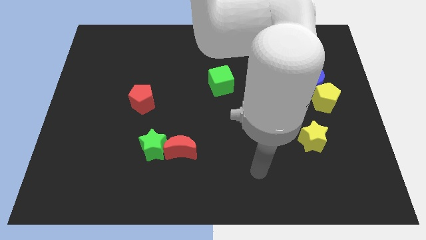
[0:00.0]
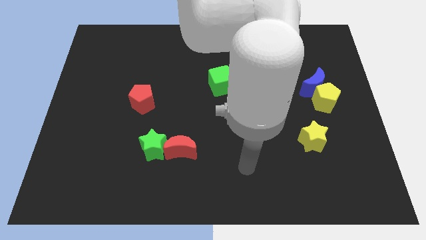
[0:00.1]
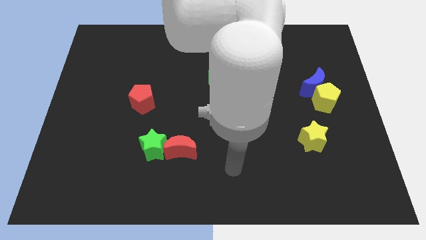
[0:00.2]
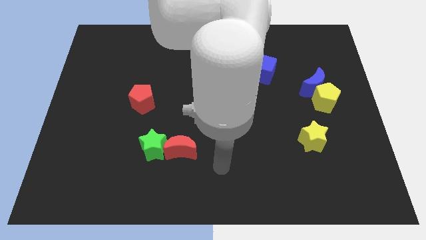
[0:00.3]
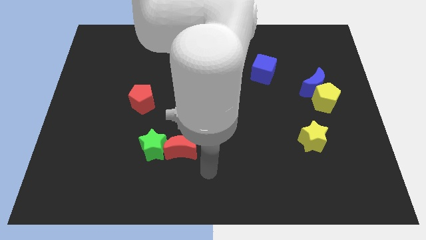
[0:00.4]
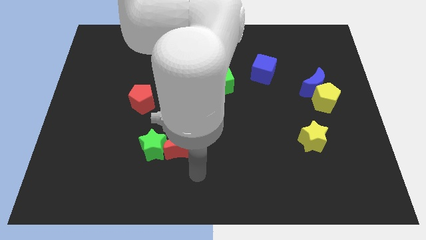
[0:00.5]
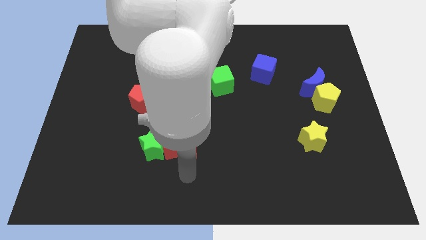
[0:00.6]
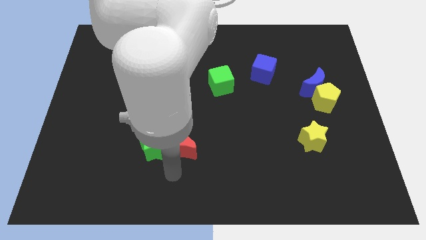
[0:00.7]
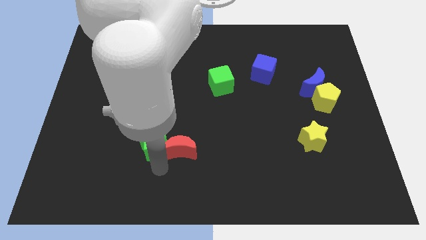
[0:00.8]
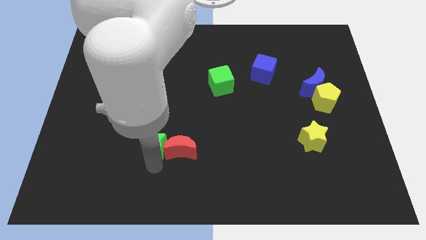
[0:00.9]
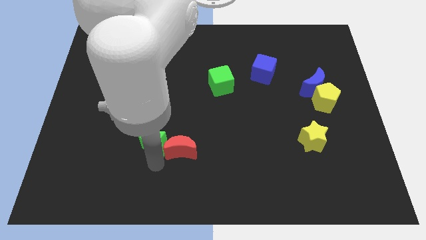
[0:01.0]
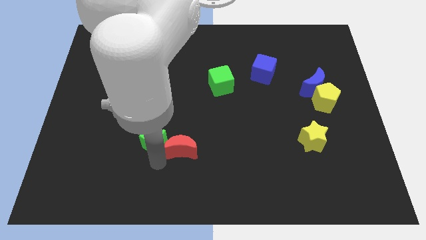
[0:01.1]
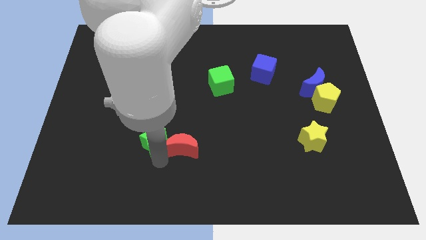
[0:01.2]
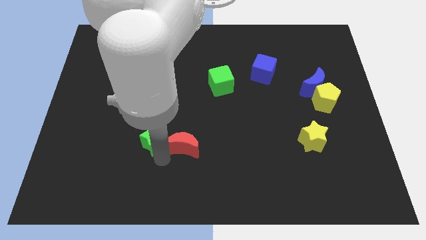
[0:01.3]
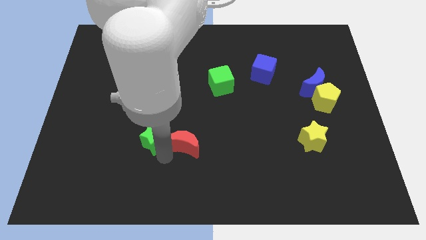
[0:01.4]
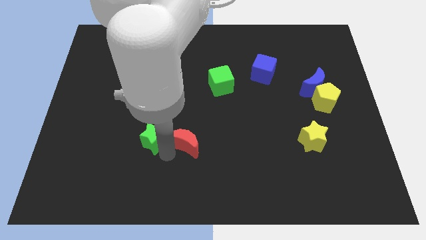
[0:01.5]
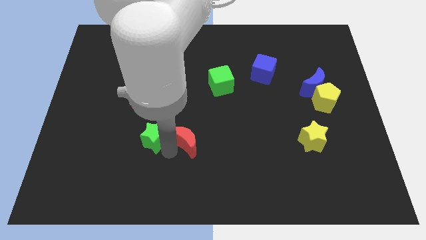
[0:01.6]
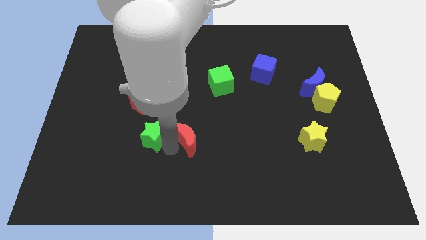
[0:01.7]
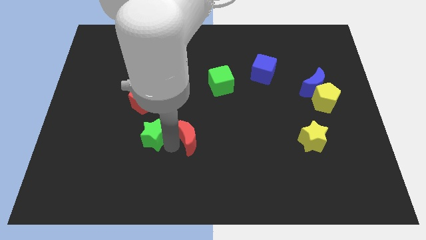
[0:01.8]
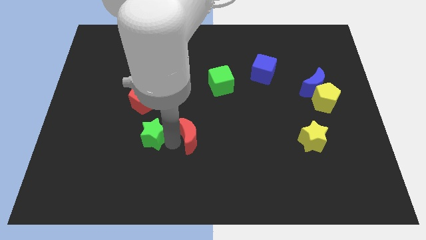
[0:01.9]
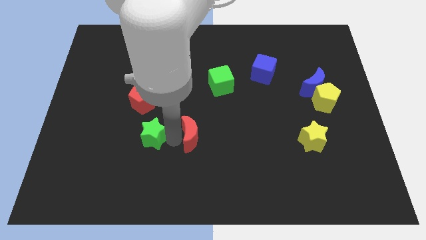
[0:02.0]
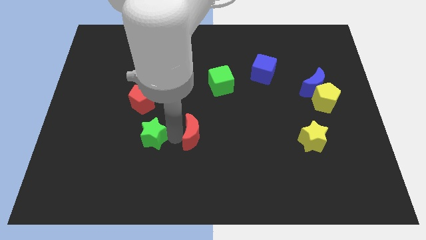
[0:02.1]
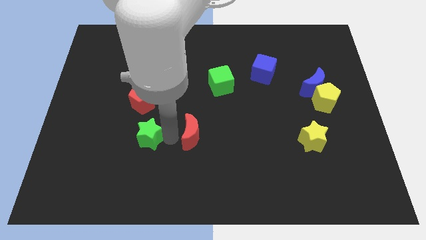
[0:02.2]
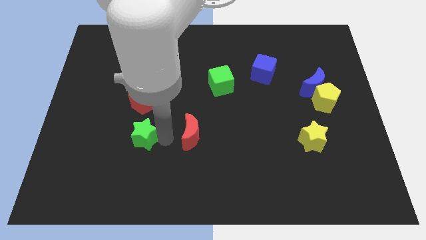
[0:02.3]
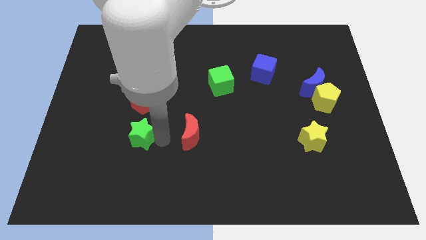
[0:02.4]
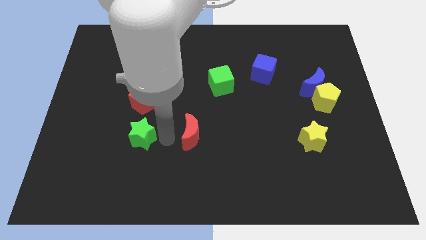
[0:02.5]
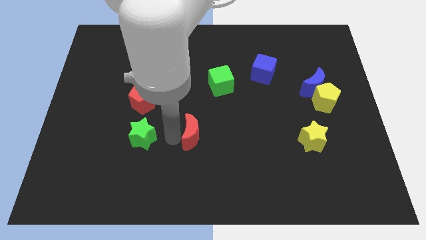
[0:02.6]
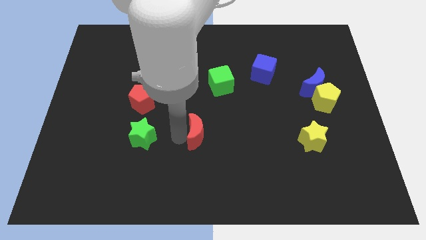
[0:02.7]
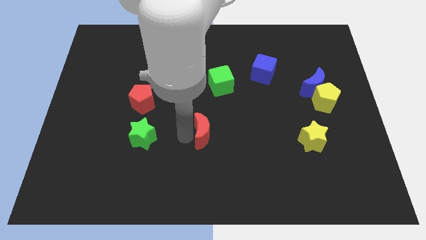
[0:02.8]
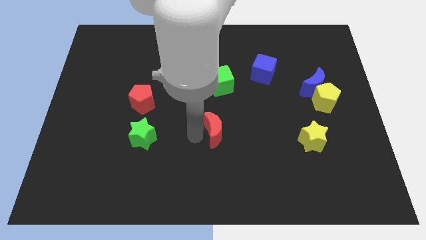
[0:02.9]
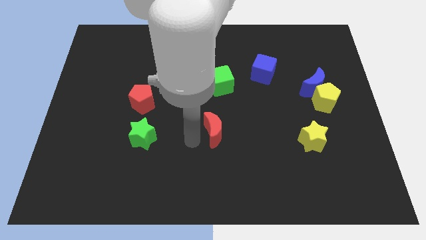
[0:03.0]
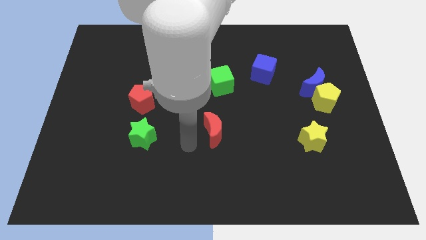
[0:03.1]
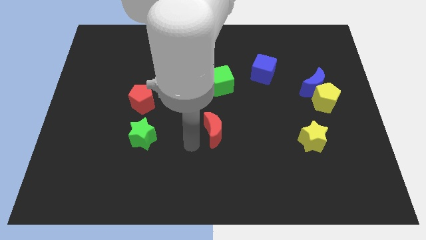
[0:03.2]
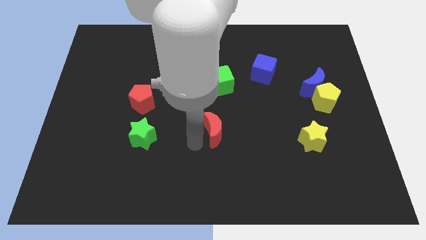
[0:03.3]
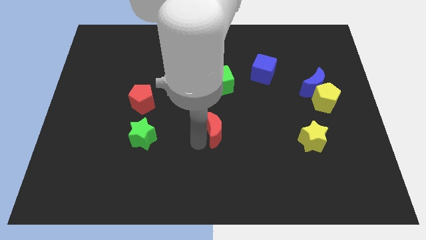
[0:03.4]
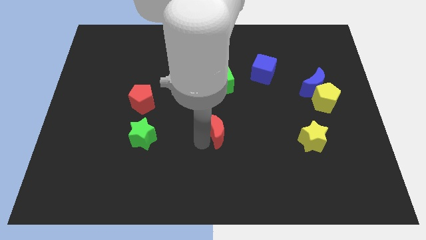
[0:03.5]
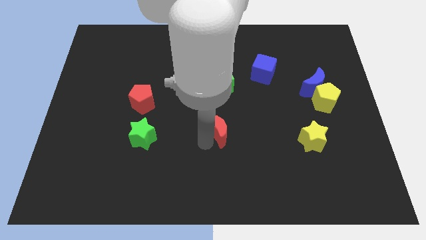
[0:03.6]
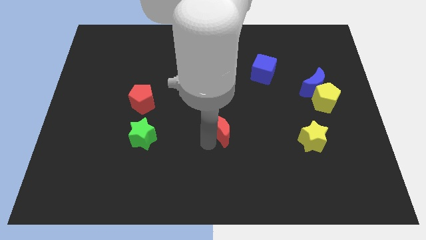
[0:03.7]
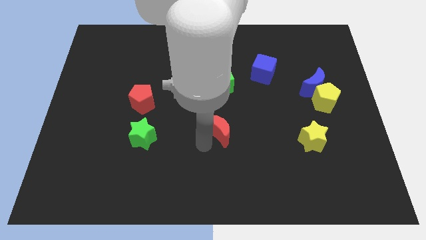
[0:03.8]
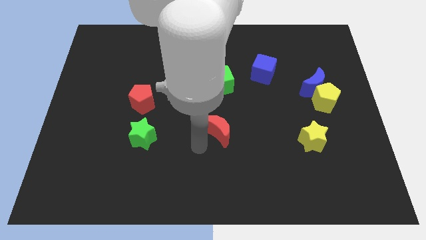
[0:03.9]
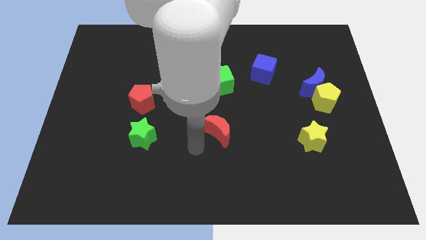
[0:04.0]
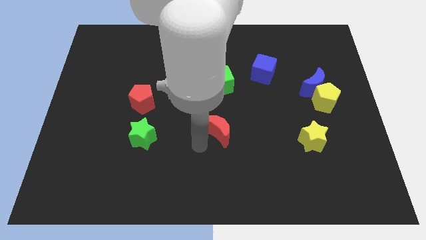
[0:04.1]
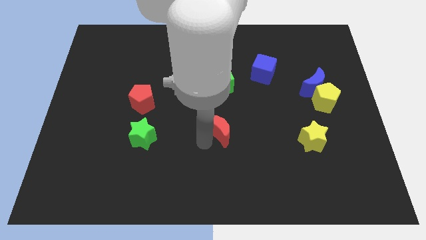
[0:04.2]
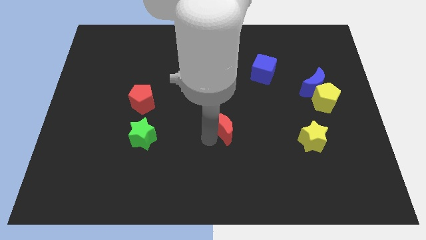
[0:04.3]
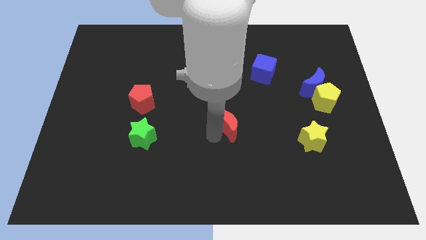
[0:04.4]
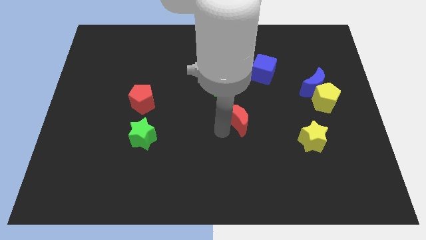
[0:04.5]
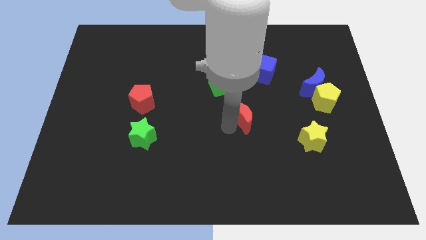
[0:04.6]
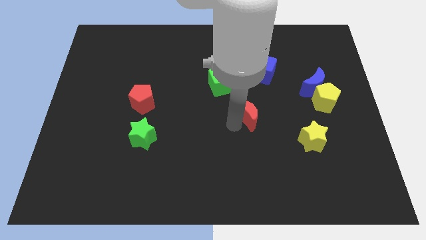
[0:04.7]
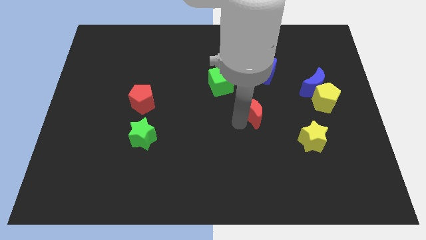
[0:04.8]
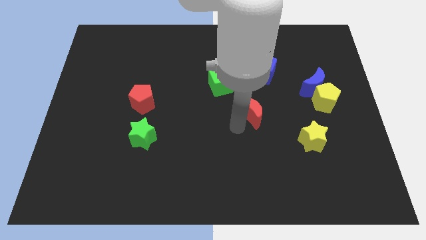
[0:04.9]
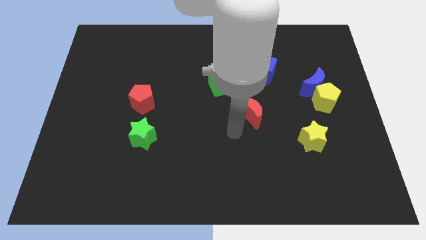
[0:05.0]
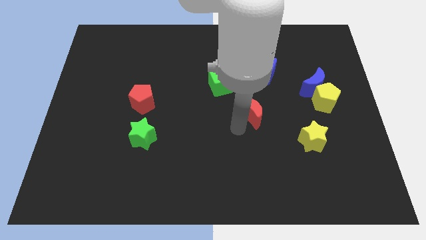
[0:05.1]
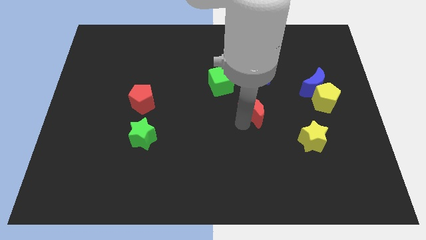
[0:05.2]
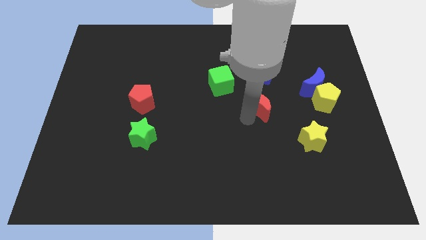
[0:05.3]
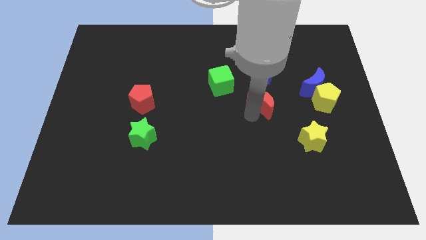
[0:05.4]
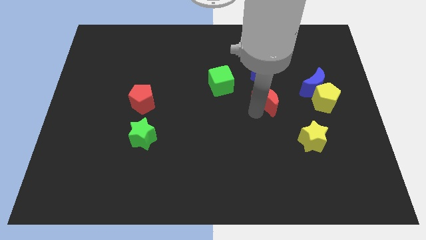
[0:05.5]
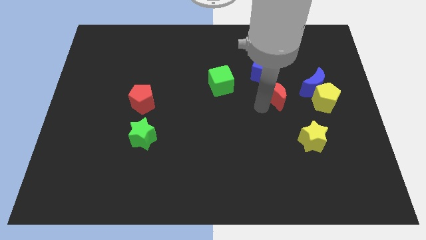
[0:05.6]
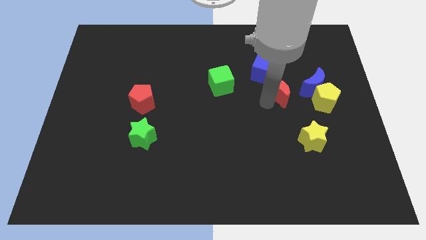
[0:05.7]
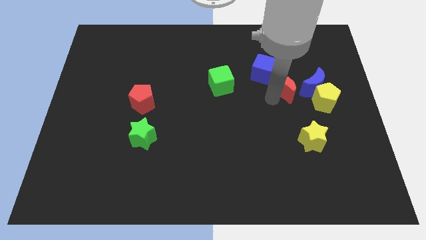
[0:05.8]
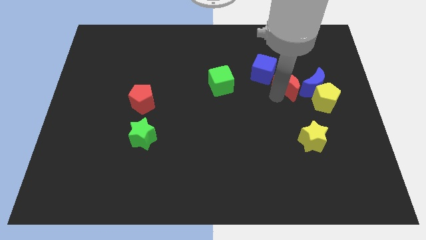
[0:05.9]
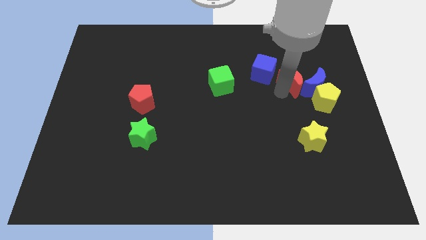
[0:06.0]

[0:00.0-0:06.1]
move the red moon just right of the blue cube

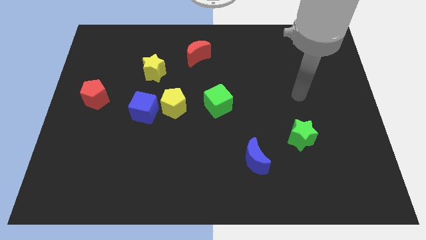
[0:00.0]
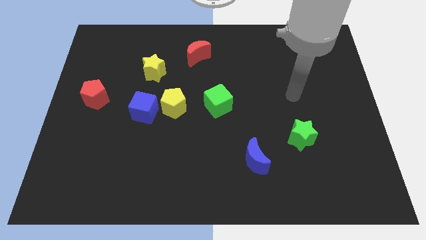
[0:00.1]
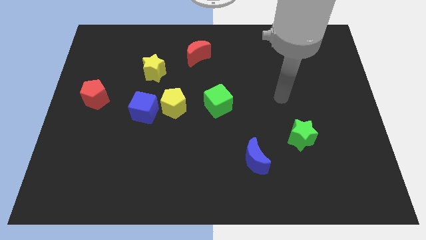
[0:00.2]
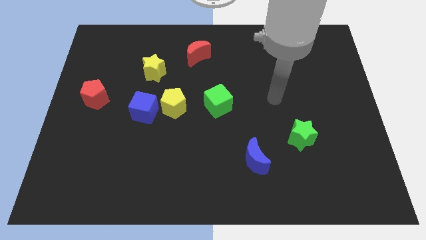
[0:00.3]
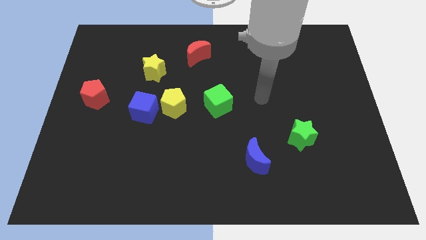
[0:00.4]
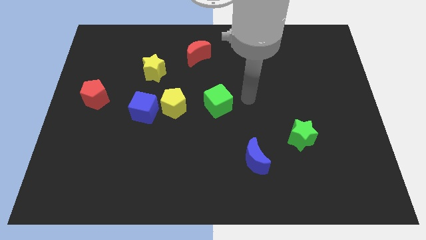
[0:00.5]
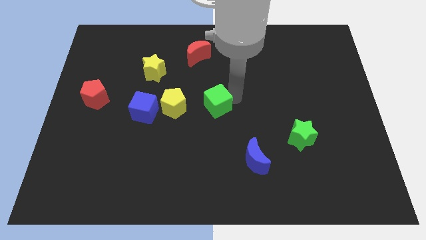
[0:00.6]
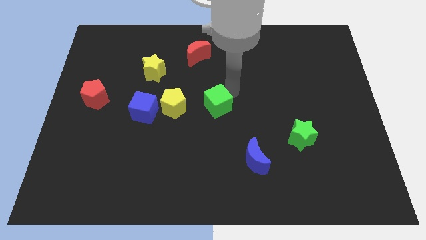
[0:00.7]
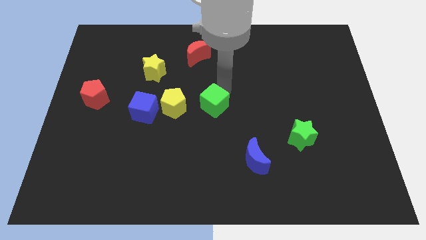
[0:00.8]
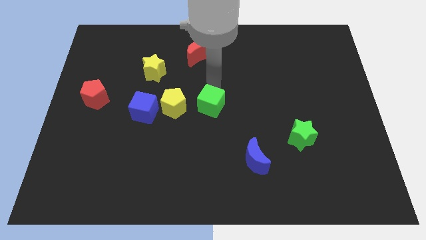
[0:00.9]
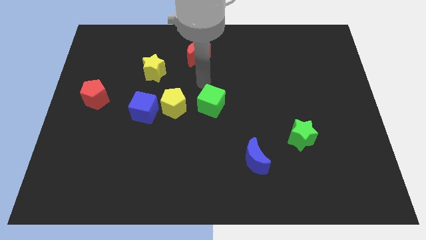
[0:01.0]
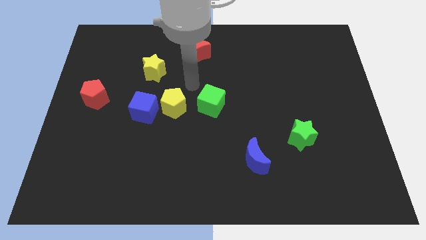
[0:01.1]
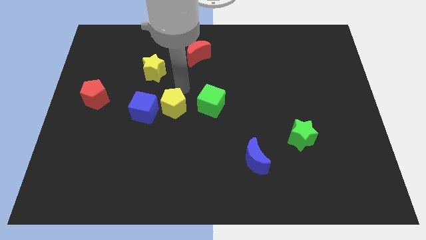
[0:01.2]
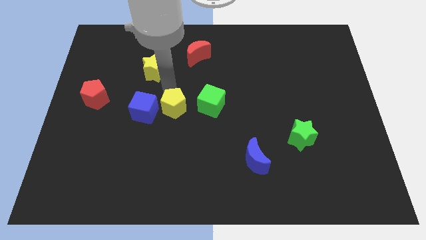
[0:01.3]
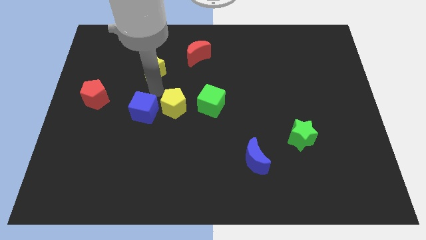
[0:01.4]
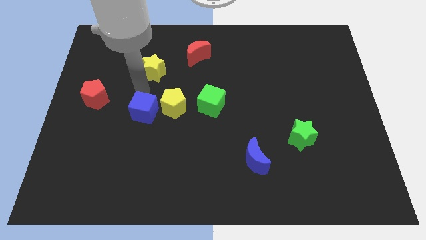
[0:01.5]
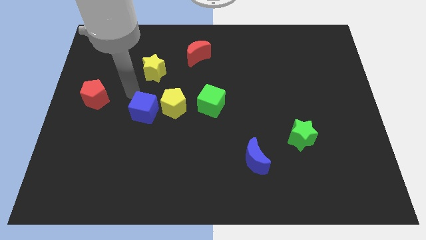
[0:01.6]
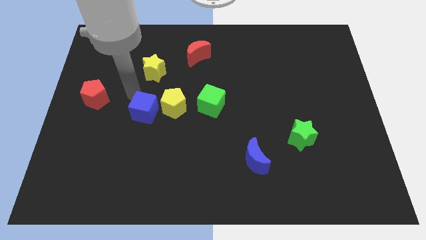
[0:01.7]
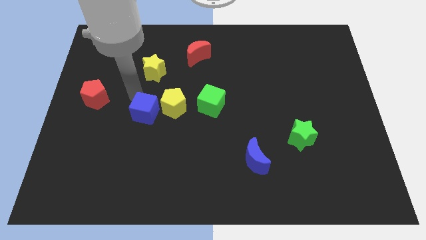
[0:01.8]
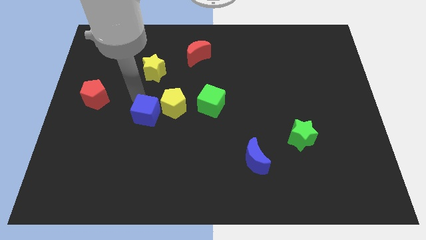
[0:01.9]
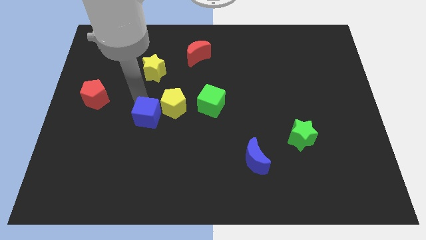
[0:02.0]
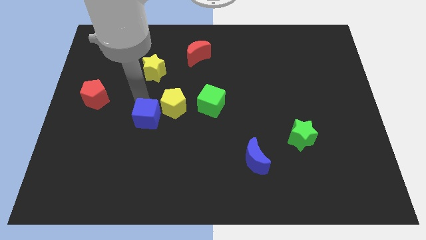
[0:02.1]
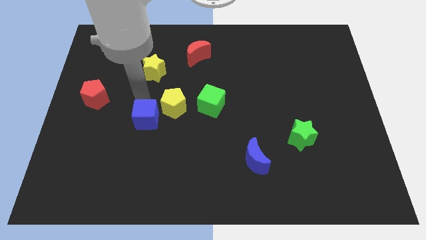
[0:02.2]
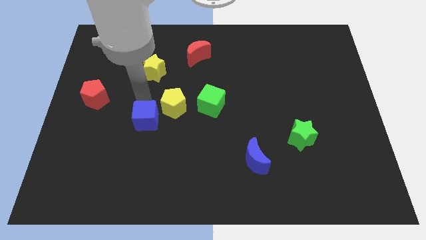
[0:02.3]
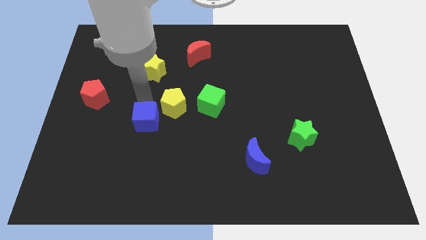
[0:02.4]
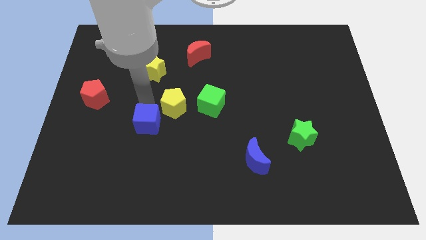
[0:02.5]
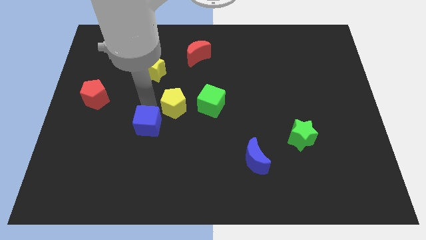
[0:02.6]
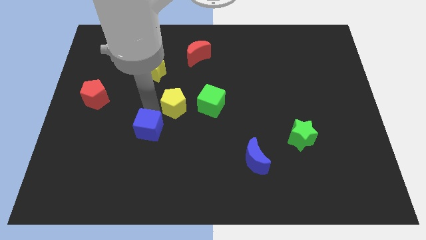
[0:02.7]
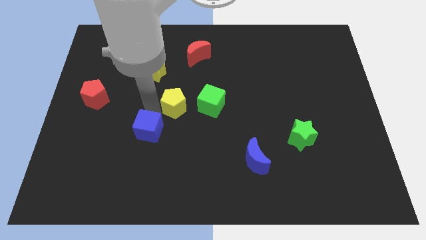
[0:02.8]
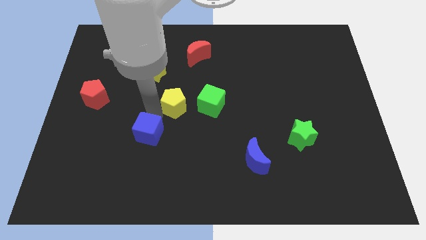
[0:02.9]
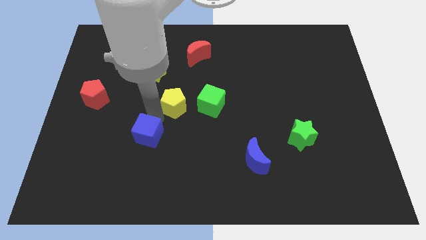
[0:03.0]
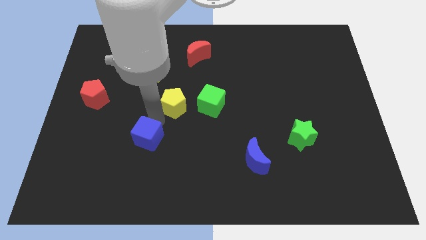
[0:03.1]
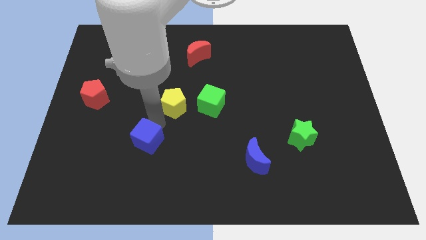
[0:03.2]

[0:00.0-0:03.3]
put the blue cube to the bottom side of the yellow pentagon
